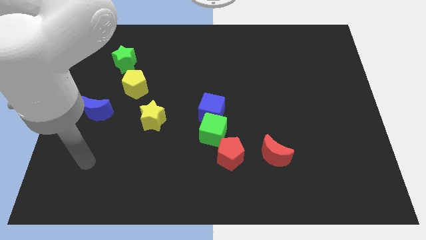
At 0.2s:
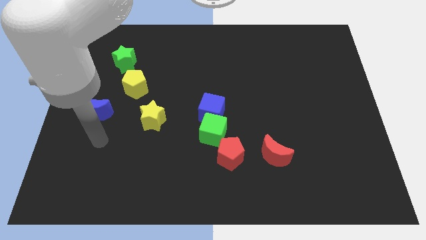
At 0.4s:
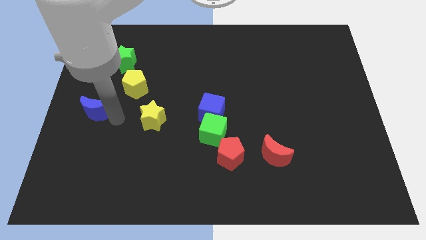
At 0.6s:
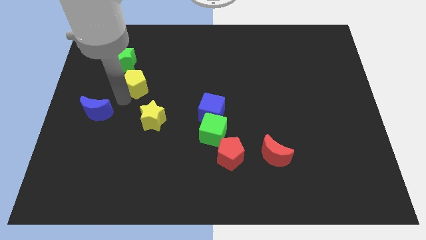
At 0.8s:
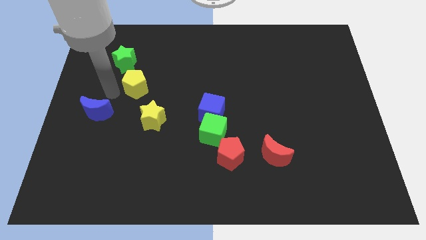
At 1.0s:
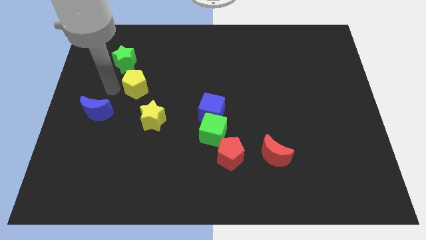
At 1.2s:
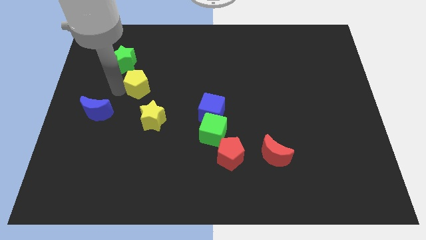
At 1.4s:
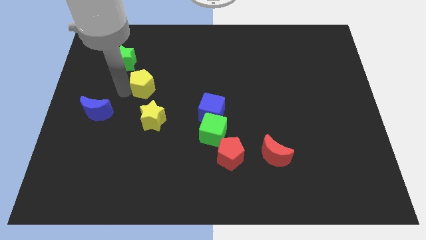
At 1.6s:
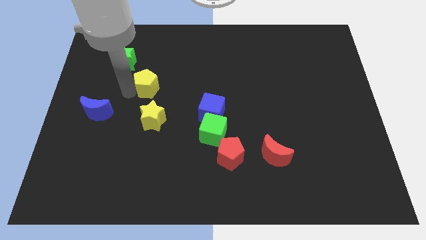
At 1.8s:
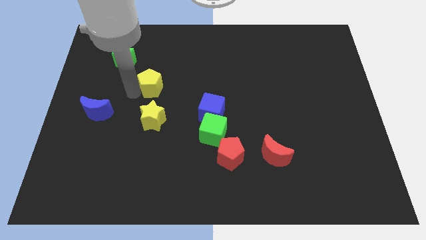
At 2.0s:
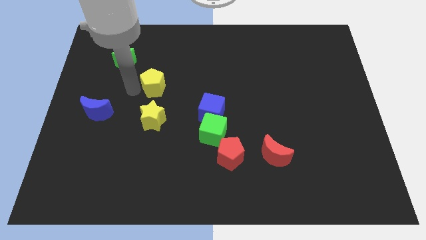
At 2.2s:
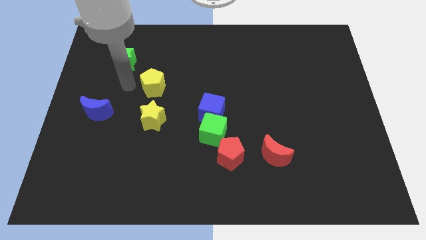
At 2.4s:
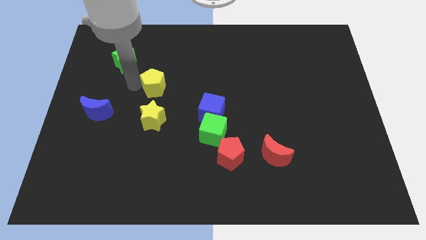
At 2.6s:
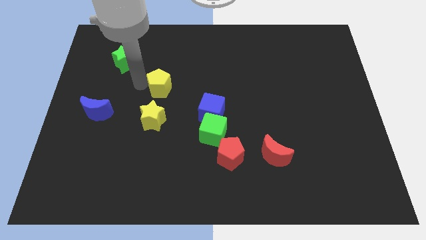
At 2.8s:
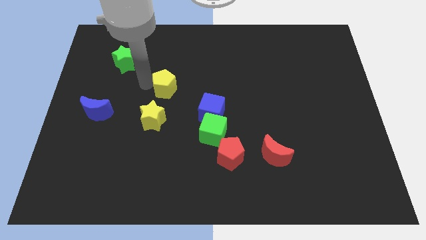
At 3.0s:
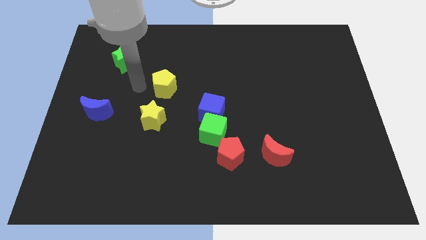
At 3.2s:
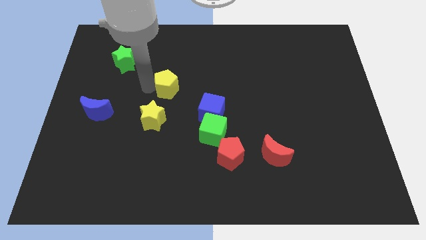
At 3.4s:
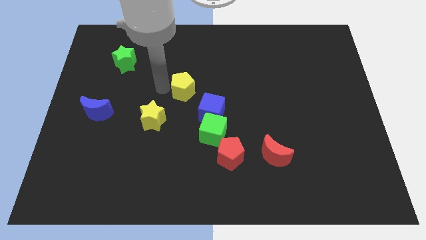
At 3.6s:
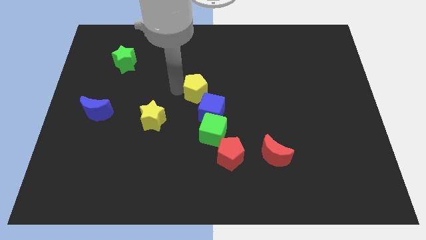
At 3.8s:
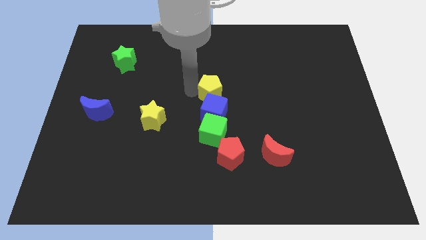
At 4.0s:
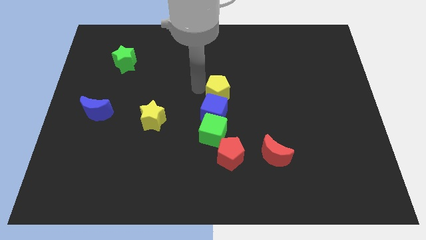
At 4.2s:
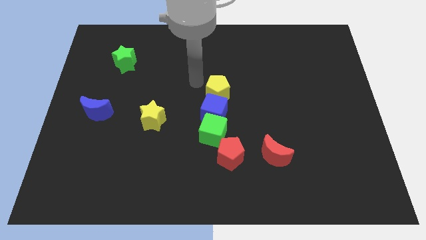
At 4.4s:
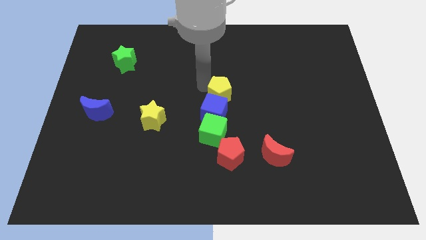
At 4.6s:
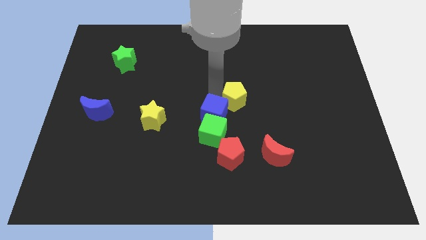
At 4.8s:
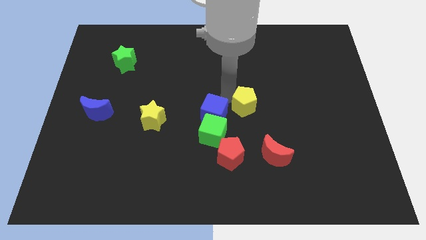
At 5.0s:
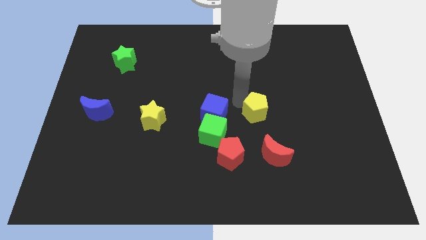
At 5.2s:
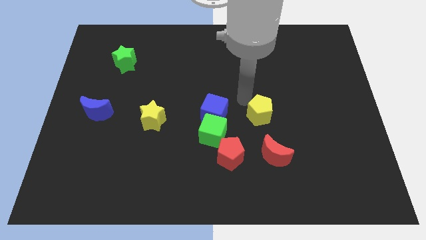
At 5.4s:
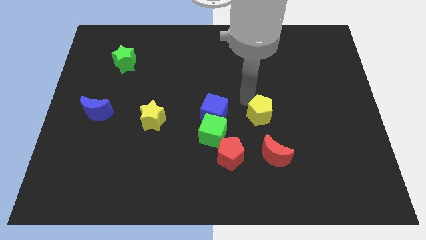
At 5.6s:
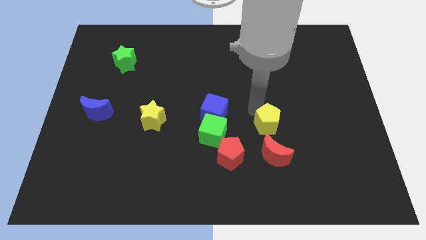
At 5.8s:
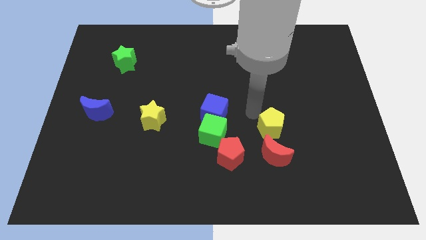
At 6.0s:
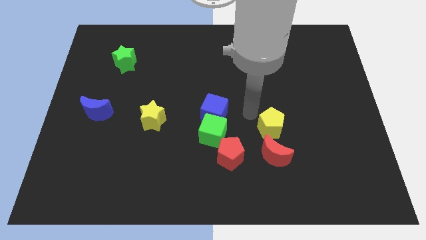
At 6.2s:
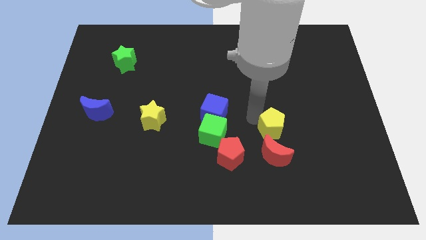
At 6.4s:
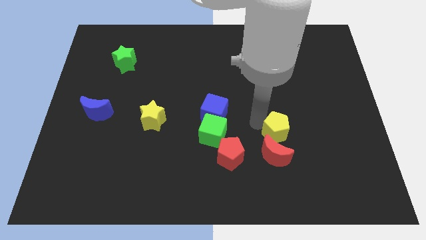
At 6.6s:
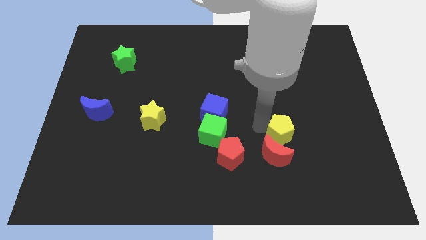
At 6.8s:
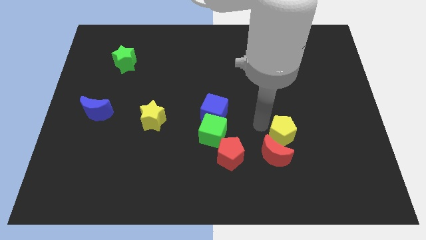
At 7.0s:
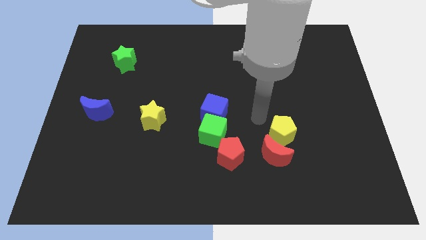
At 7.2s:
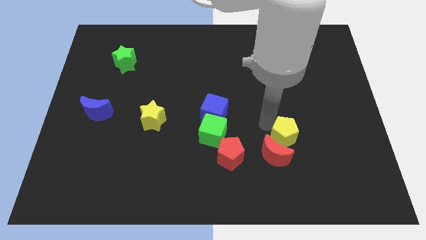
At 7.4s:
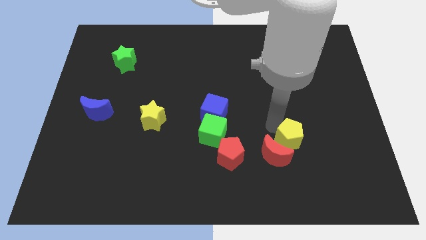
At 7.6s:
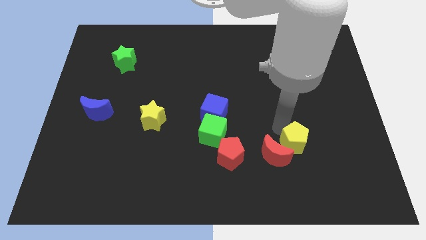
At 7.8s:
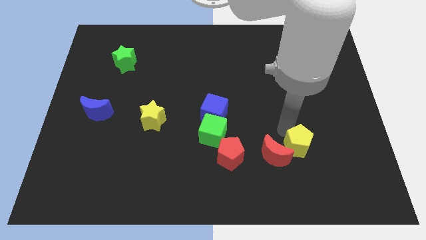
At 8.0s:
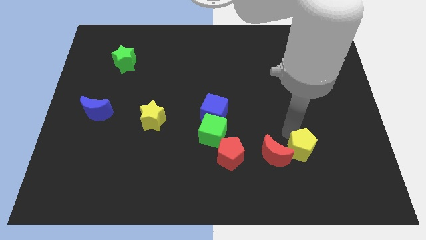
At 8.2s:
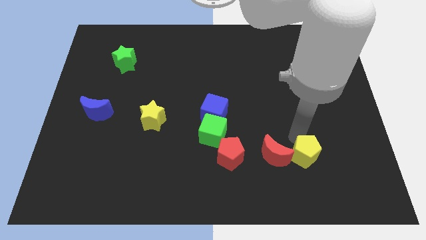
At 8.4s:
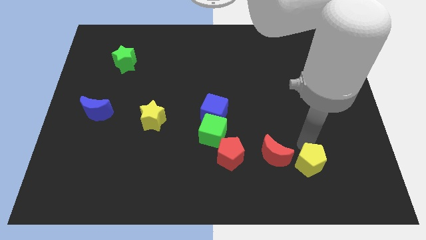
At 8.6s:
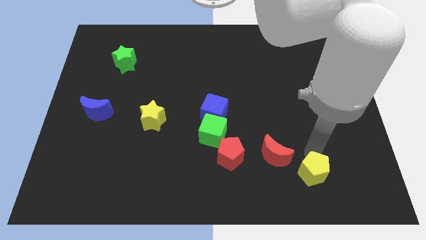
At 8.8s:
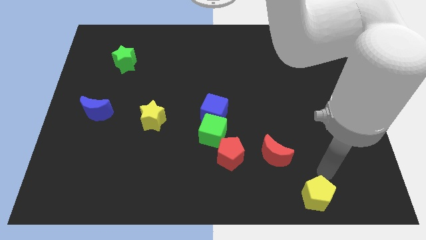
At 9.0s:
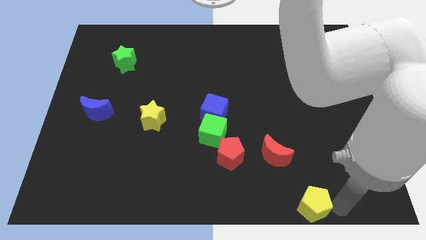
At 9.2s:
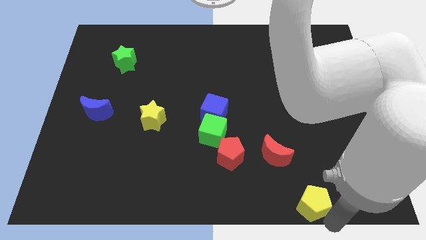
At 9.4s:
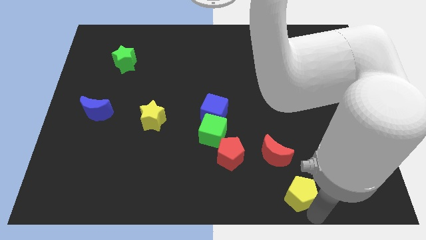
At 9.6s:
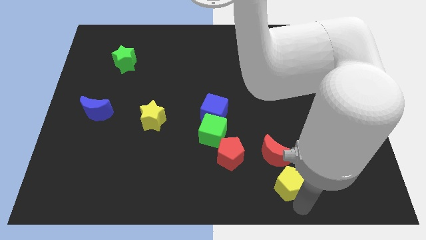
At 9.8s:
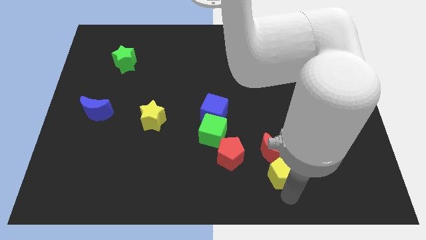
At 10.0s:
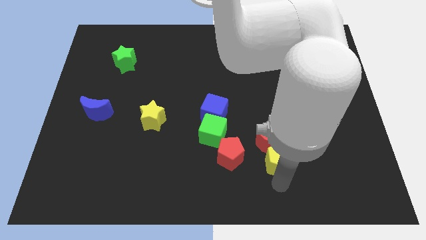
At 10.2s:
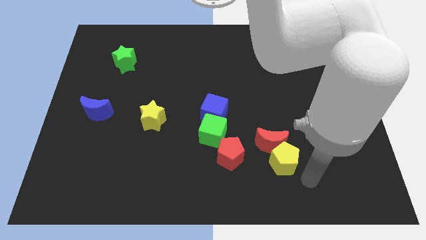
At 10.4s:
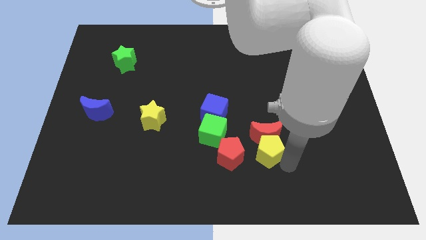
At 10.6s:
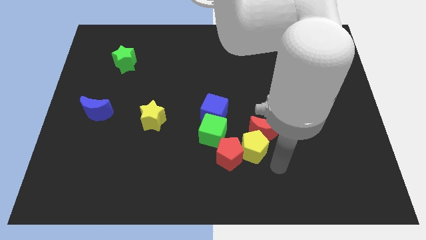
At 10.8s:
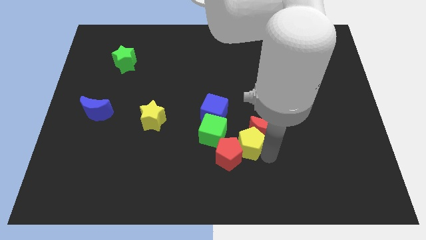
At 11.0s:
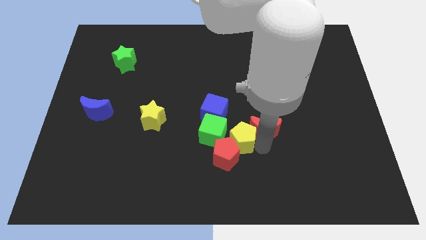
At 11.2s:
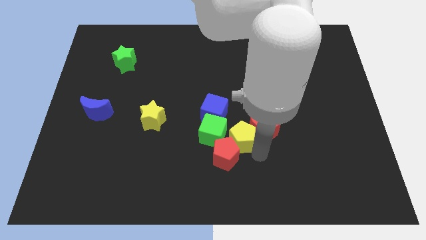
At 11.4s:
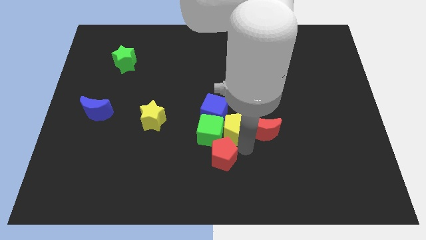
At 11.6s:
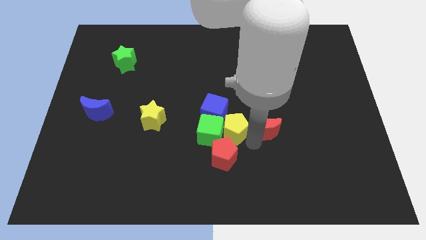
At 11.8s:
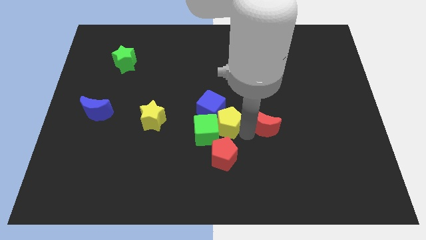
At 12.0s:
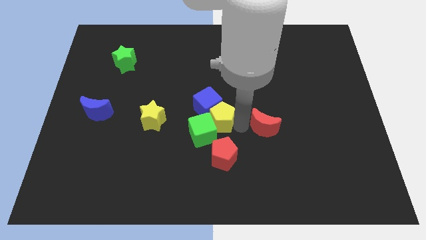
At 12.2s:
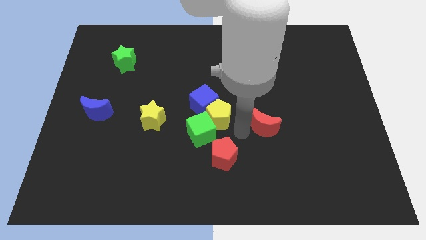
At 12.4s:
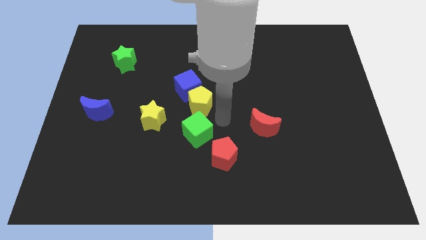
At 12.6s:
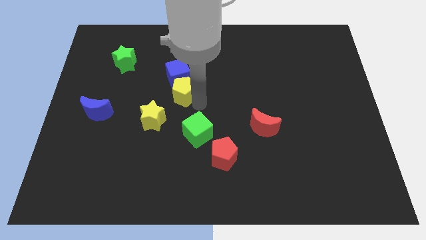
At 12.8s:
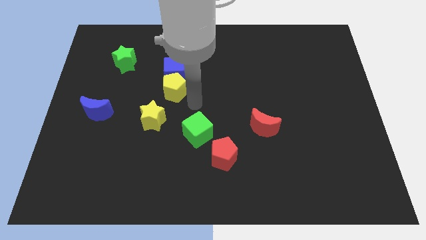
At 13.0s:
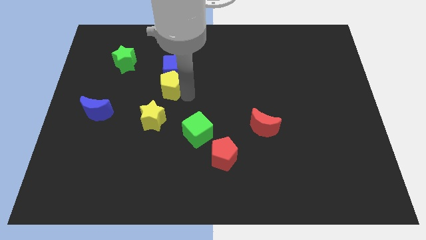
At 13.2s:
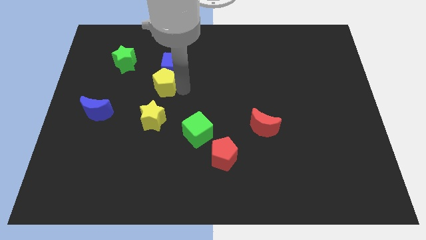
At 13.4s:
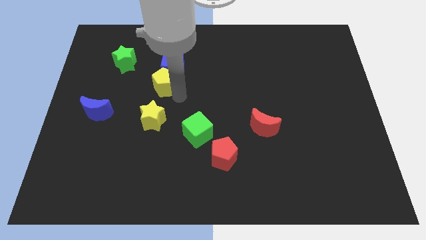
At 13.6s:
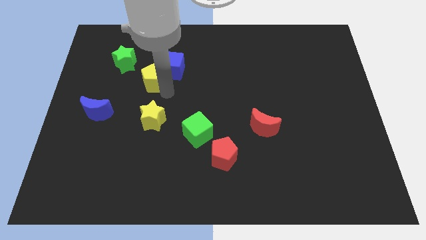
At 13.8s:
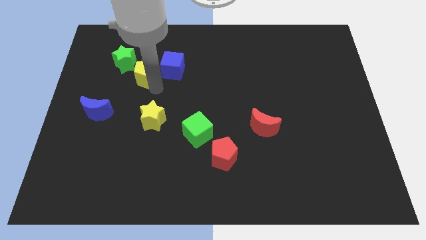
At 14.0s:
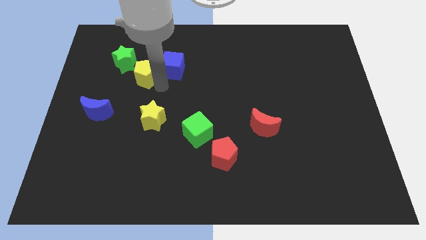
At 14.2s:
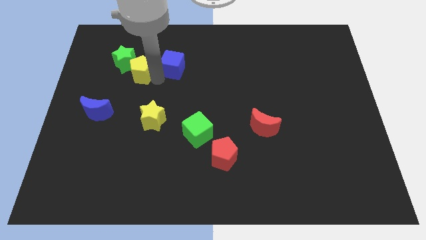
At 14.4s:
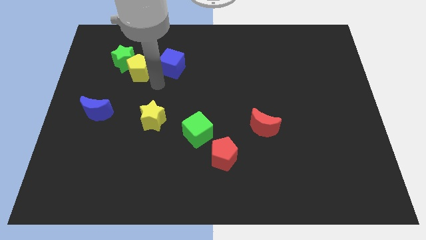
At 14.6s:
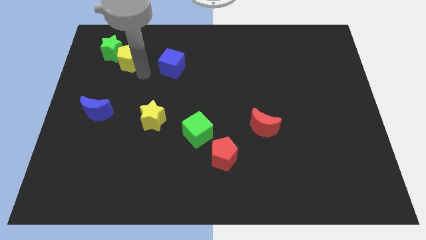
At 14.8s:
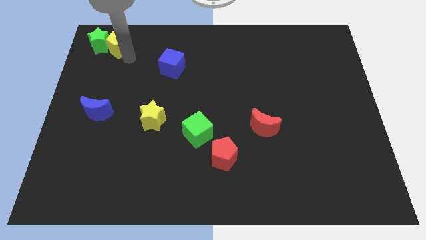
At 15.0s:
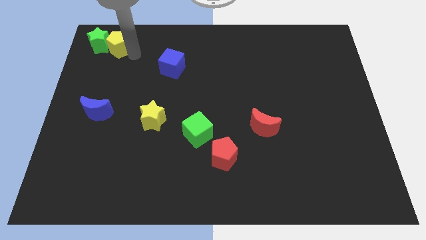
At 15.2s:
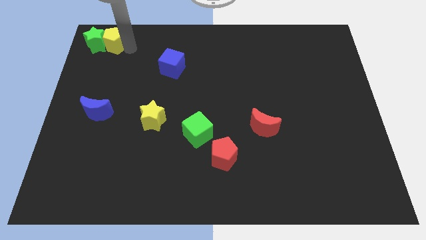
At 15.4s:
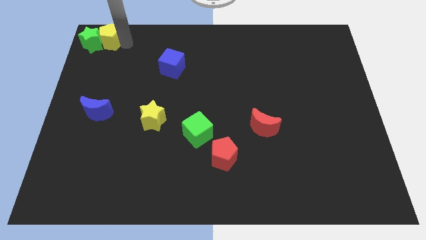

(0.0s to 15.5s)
push the yellow pentagon to the top left corner
